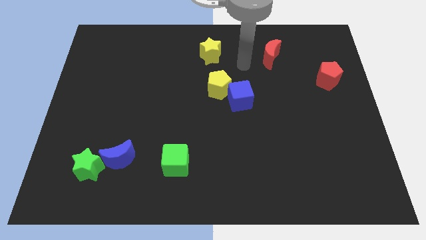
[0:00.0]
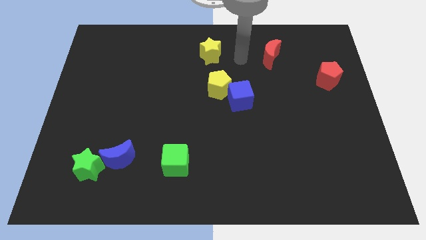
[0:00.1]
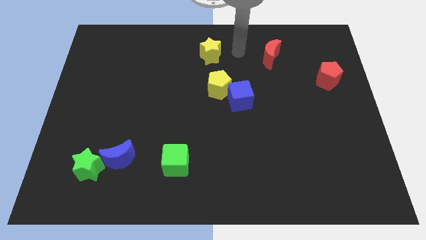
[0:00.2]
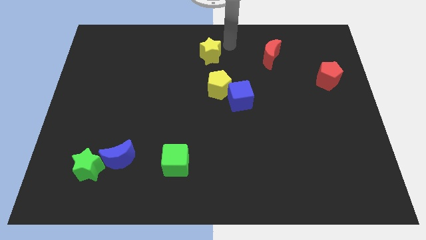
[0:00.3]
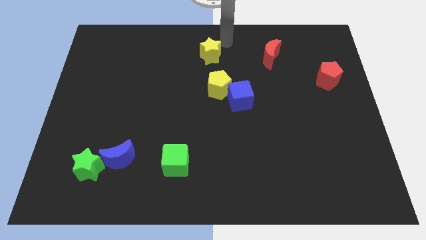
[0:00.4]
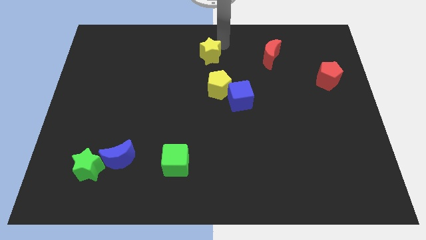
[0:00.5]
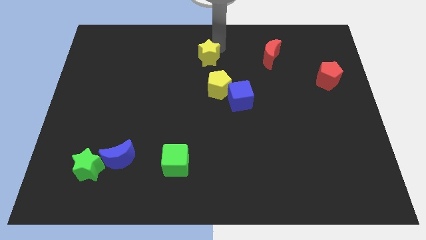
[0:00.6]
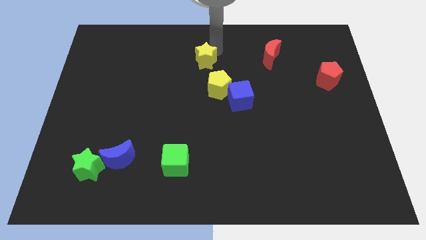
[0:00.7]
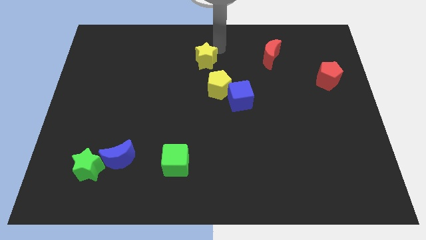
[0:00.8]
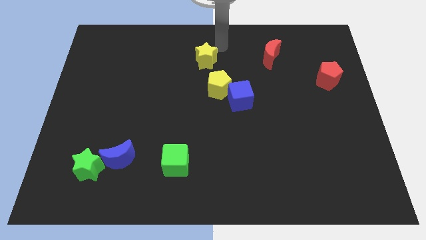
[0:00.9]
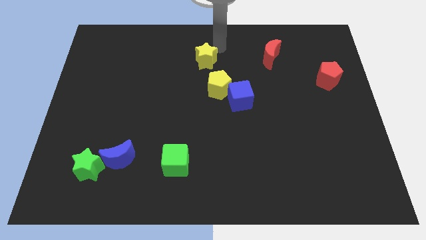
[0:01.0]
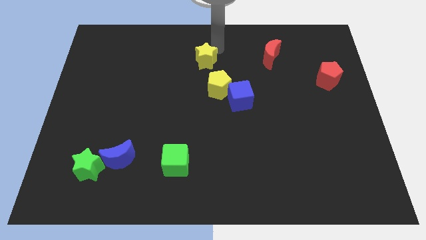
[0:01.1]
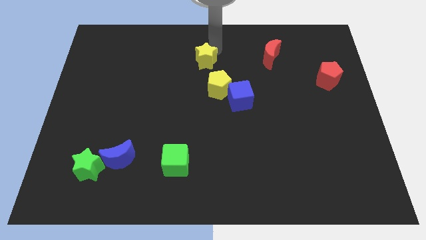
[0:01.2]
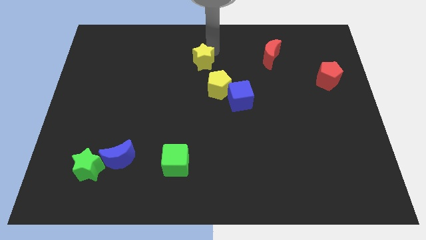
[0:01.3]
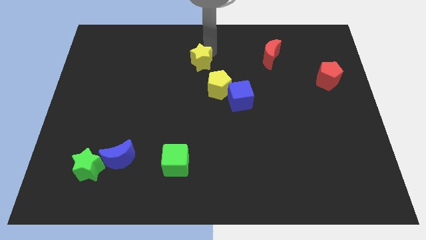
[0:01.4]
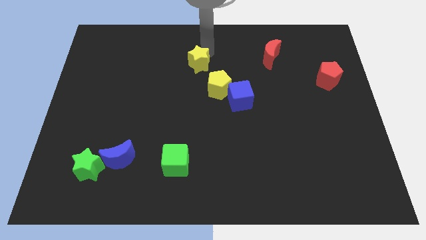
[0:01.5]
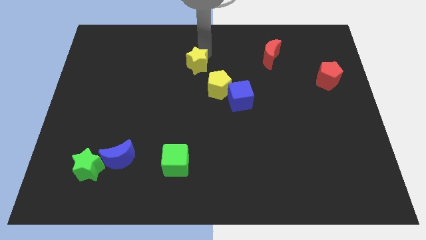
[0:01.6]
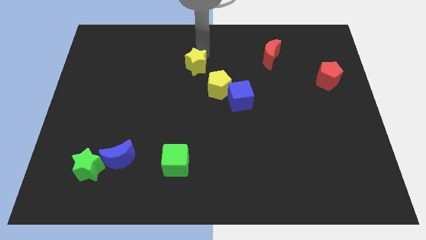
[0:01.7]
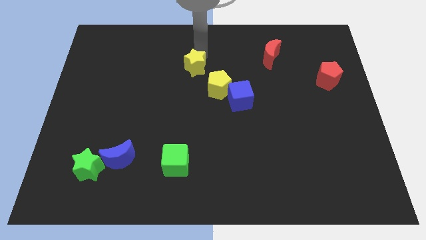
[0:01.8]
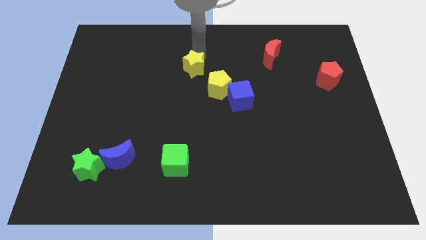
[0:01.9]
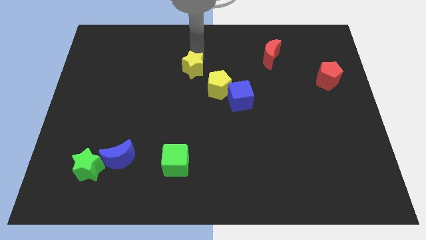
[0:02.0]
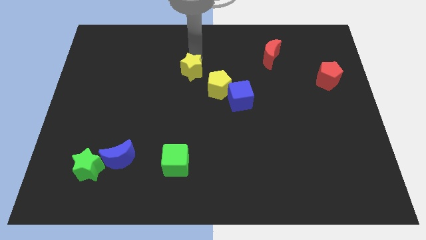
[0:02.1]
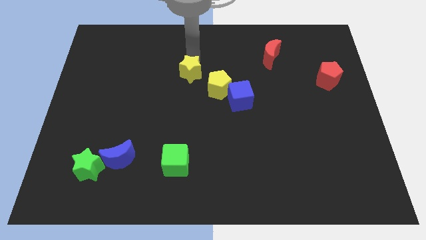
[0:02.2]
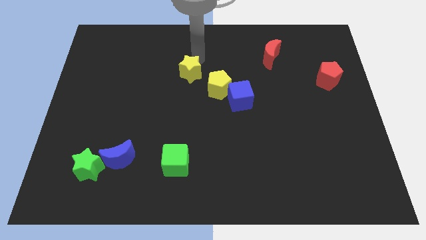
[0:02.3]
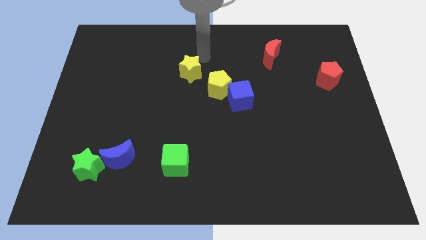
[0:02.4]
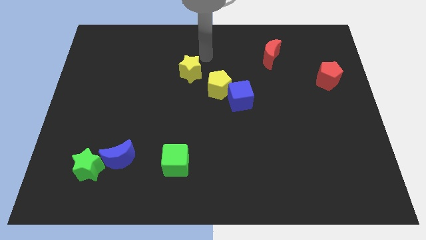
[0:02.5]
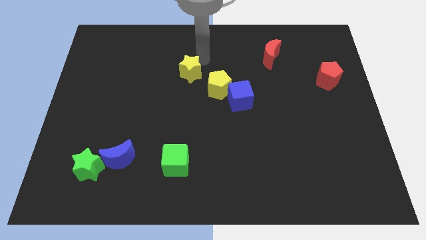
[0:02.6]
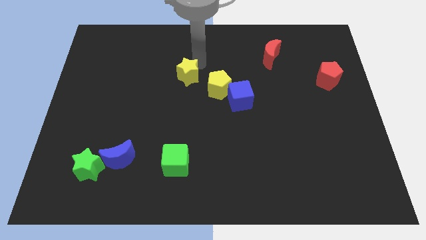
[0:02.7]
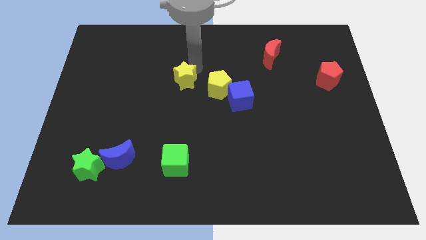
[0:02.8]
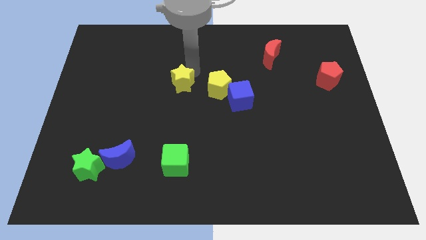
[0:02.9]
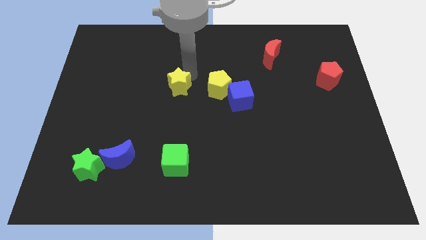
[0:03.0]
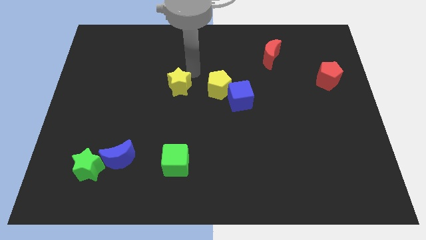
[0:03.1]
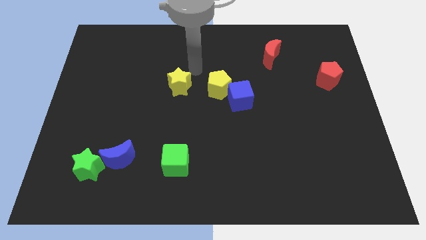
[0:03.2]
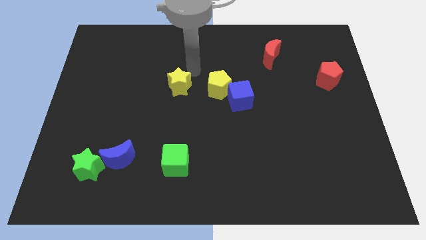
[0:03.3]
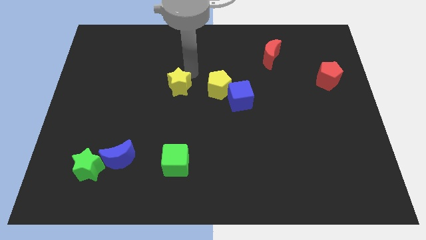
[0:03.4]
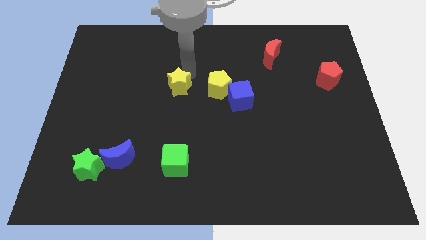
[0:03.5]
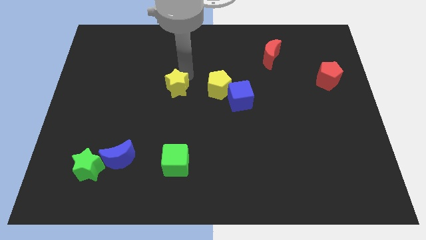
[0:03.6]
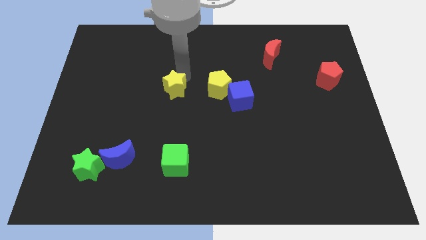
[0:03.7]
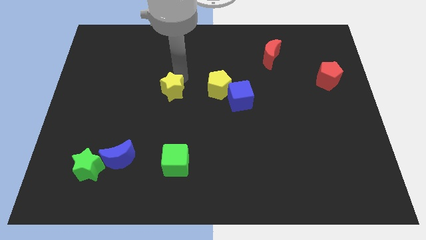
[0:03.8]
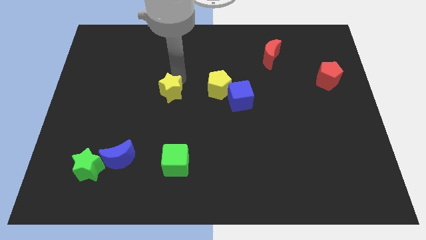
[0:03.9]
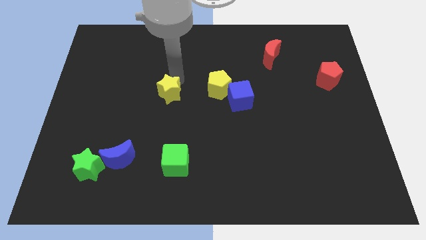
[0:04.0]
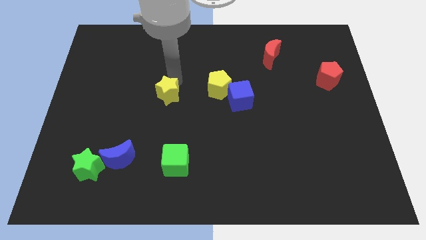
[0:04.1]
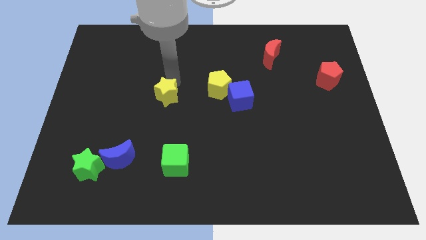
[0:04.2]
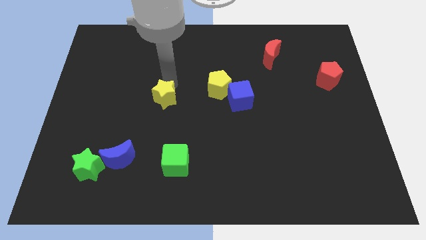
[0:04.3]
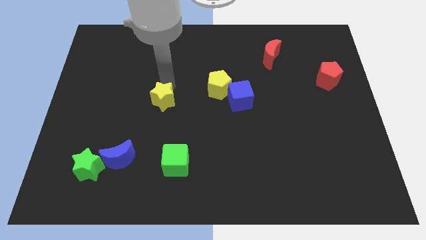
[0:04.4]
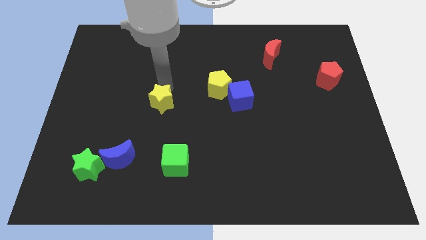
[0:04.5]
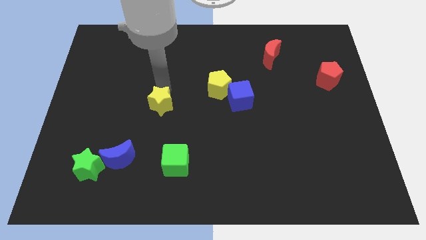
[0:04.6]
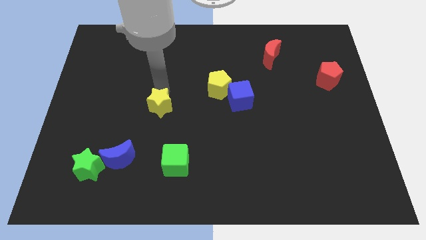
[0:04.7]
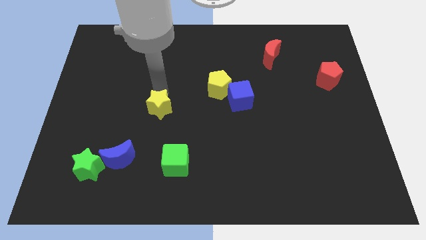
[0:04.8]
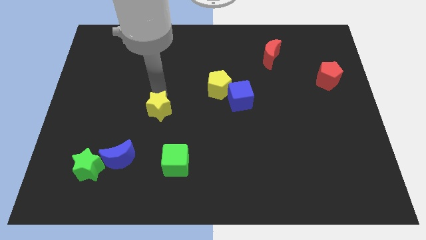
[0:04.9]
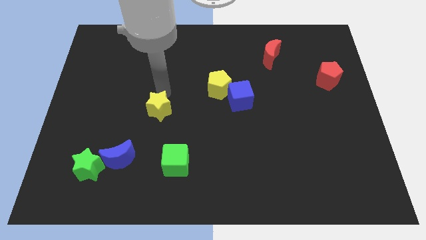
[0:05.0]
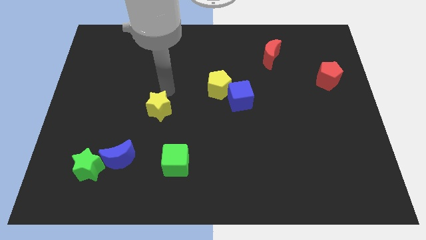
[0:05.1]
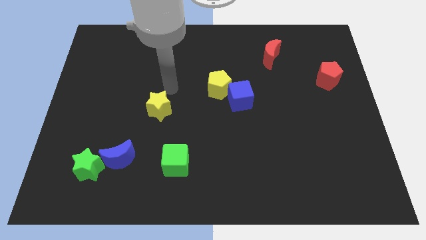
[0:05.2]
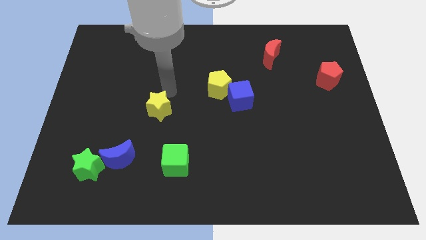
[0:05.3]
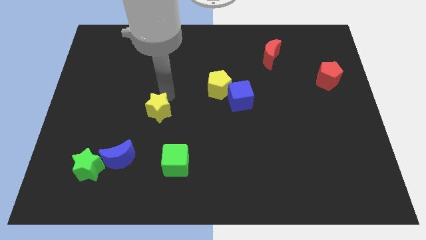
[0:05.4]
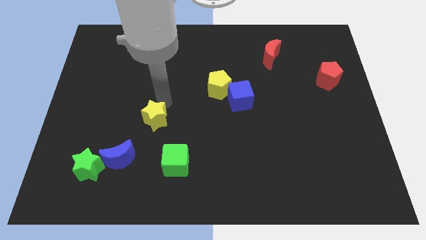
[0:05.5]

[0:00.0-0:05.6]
push the yellow star to the top right side of the blue moon

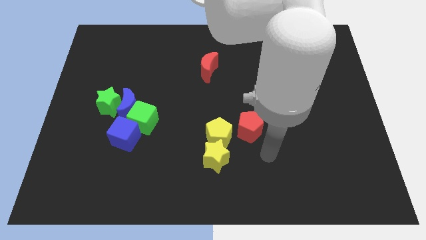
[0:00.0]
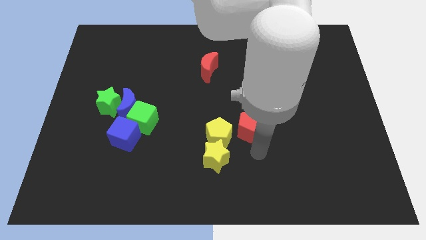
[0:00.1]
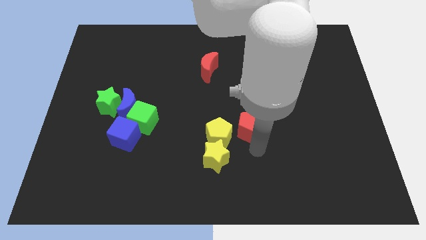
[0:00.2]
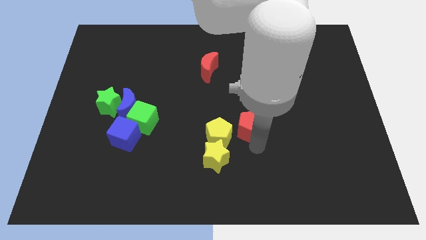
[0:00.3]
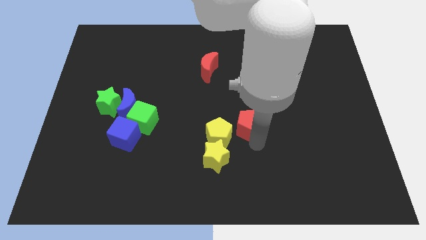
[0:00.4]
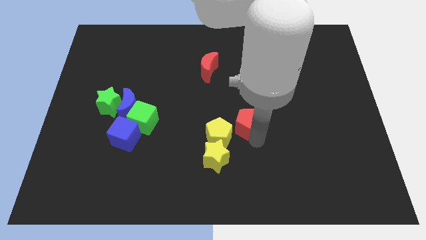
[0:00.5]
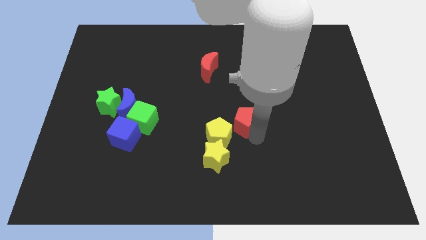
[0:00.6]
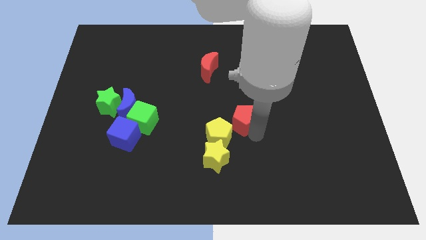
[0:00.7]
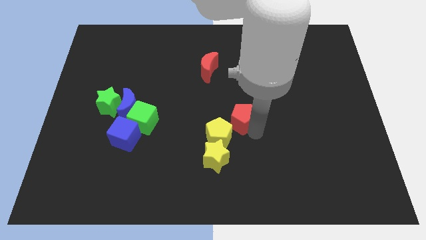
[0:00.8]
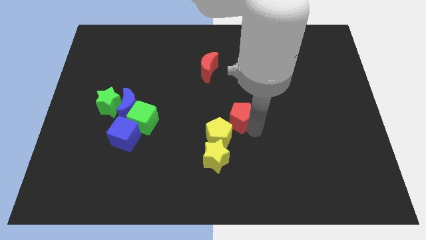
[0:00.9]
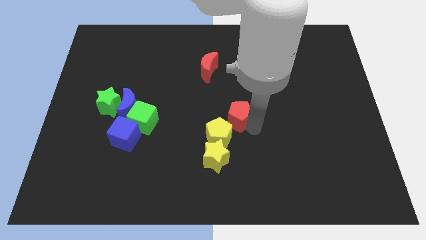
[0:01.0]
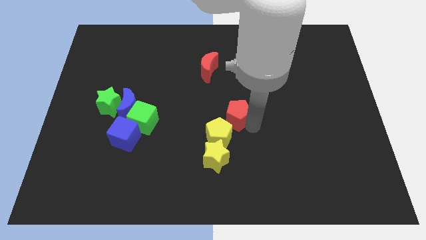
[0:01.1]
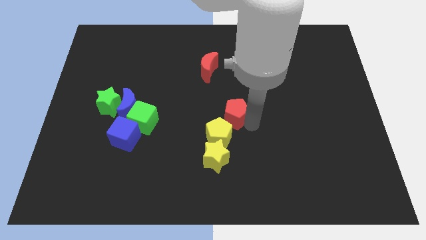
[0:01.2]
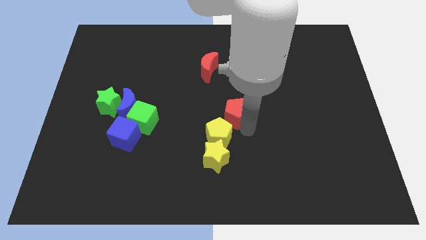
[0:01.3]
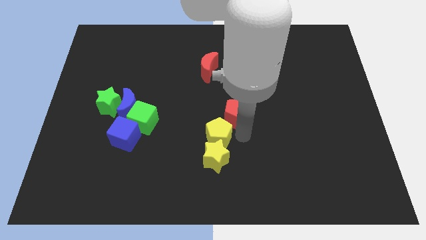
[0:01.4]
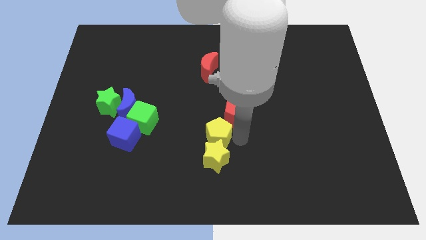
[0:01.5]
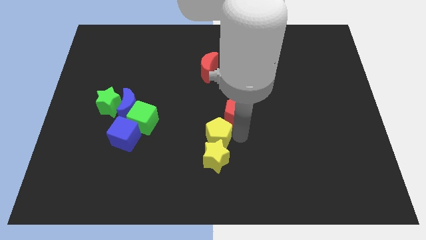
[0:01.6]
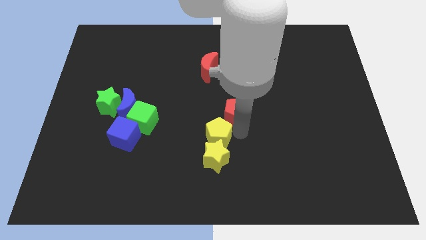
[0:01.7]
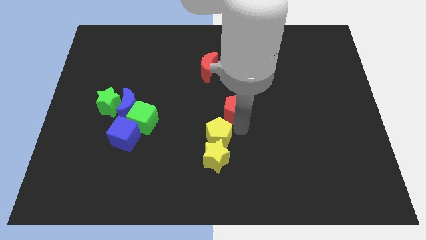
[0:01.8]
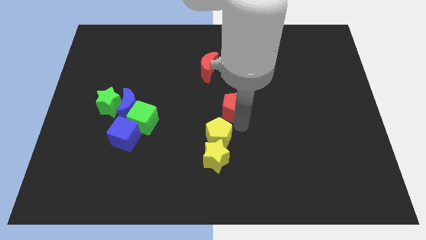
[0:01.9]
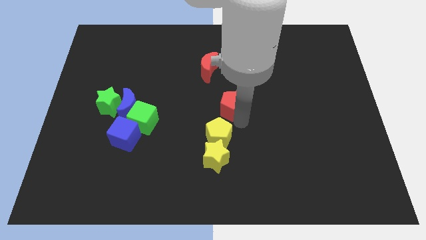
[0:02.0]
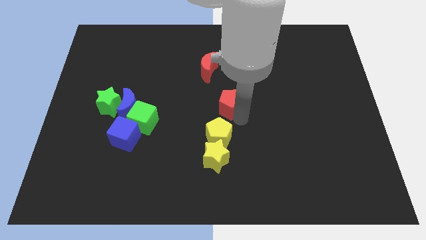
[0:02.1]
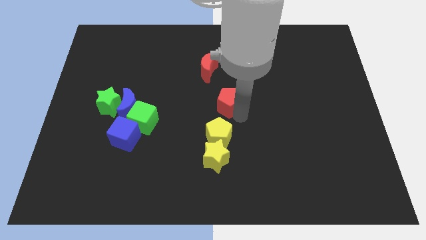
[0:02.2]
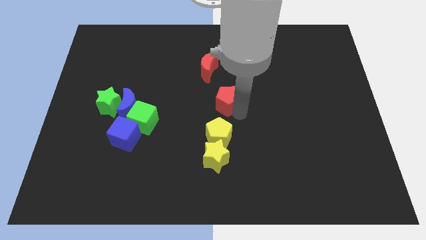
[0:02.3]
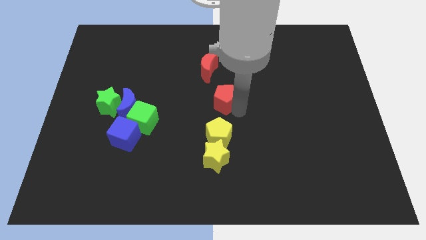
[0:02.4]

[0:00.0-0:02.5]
put the red pentagon to the bottom right side of the red moon
